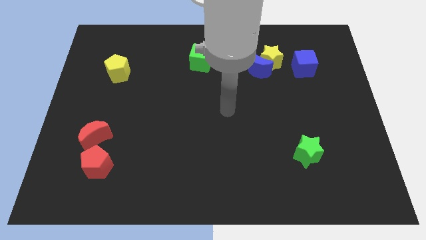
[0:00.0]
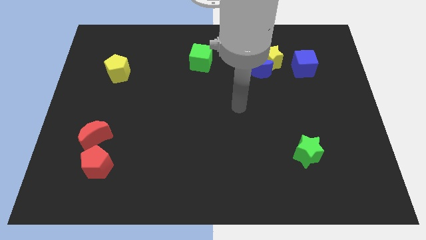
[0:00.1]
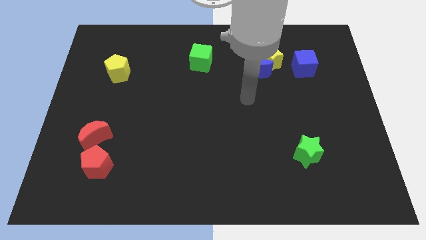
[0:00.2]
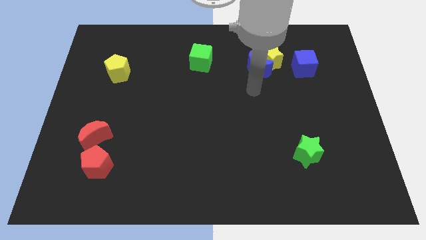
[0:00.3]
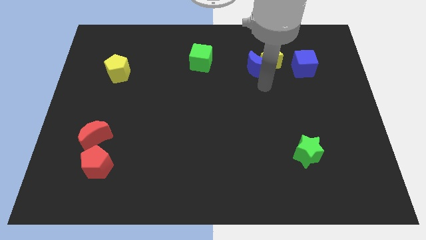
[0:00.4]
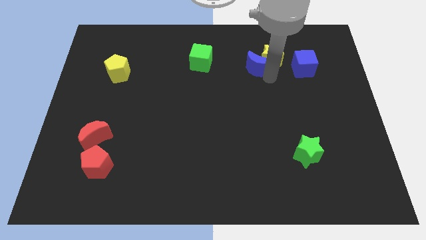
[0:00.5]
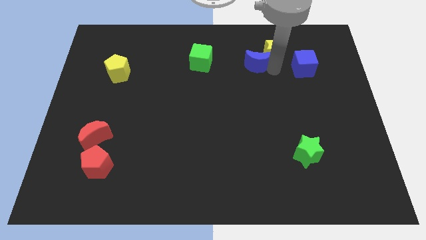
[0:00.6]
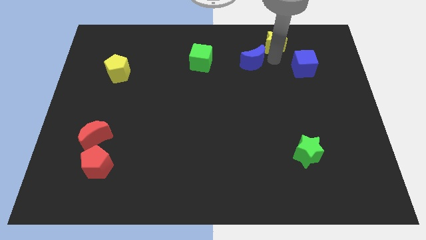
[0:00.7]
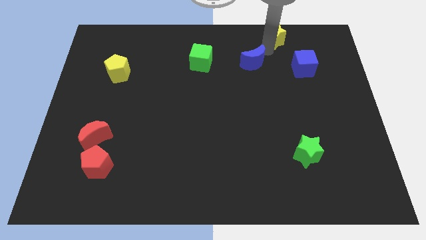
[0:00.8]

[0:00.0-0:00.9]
separate the blue moon from the yellow star

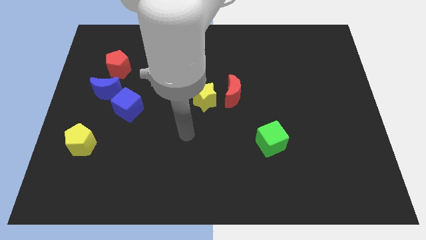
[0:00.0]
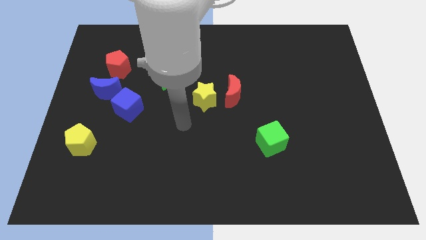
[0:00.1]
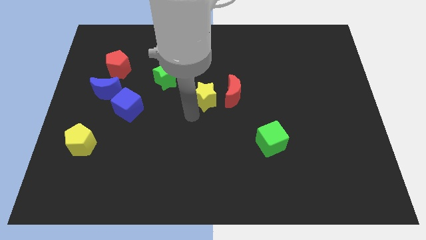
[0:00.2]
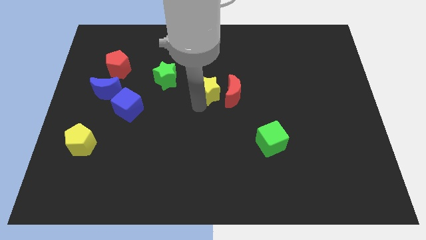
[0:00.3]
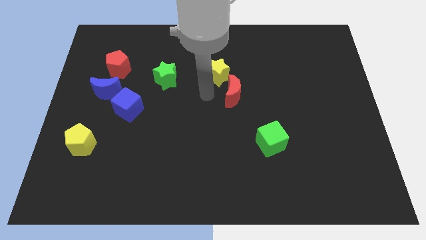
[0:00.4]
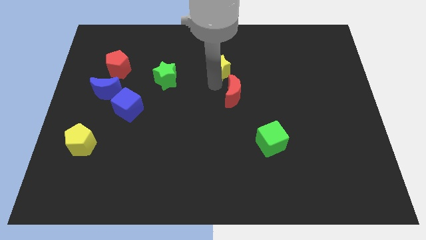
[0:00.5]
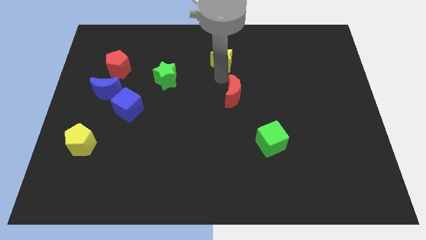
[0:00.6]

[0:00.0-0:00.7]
move the red moon away from the yellow star

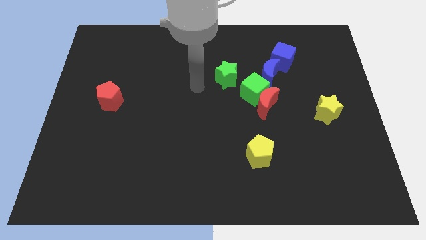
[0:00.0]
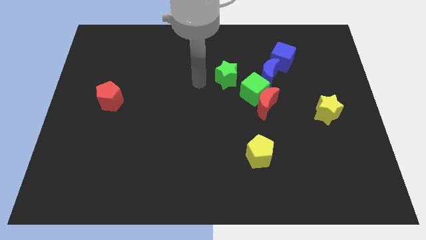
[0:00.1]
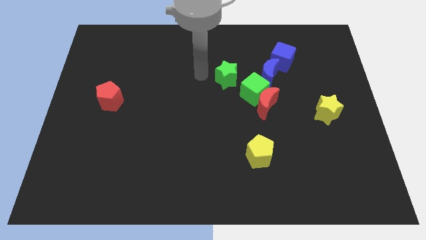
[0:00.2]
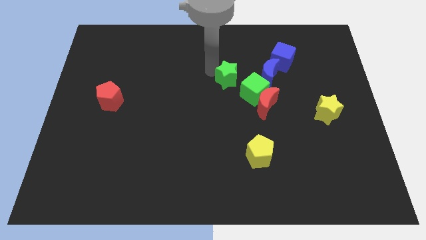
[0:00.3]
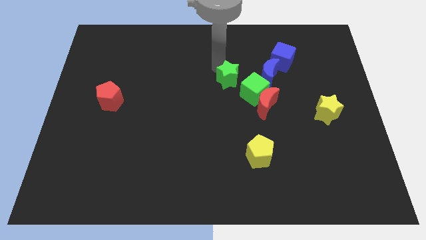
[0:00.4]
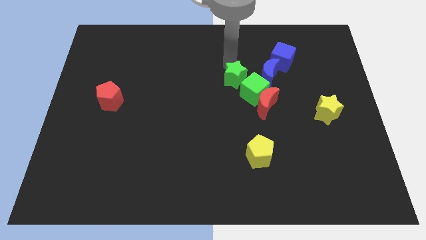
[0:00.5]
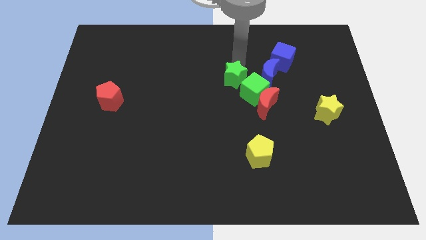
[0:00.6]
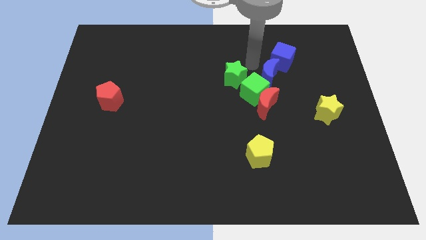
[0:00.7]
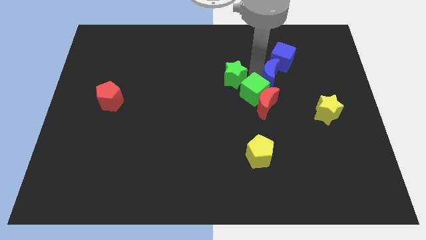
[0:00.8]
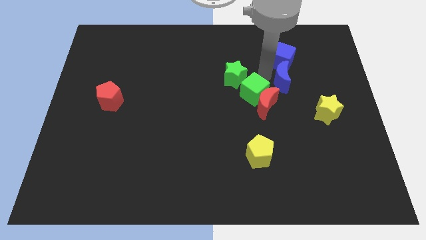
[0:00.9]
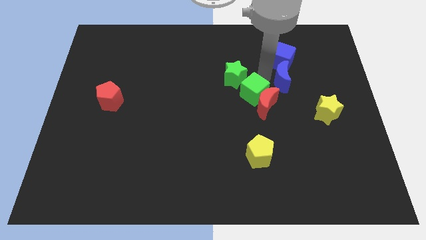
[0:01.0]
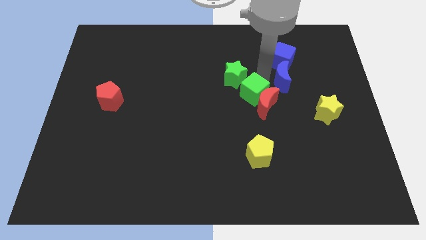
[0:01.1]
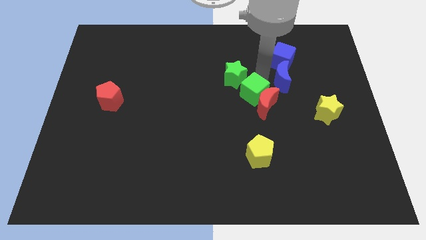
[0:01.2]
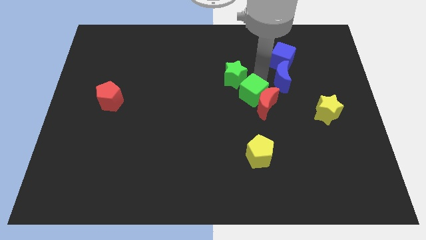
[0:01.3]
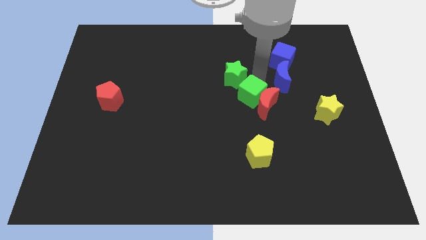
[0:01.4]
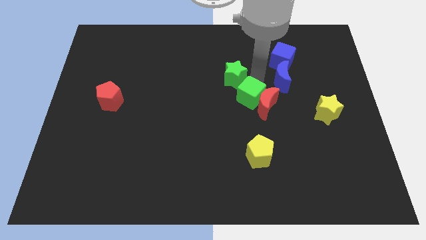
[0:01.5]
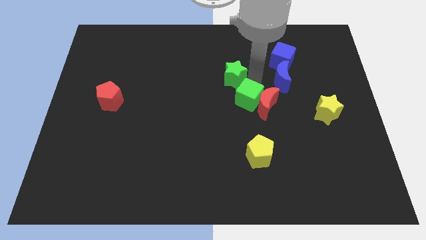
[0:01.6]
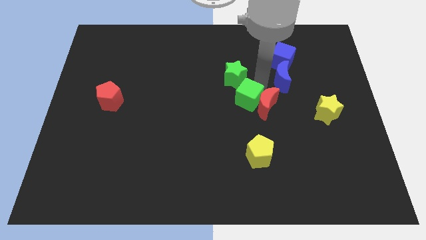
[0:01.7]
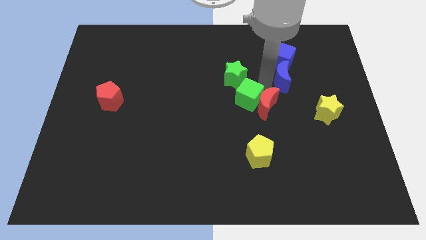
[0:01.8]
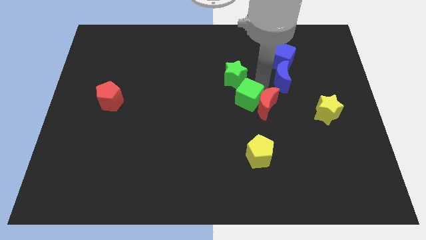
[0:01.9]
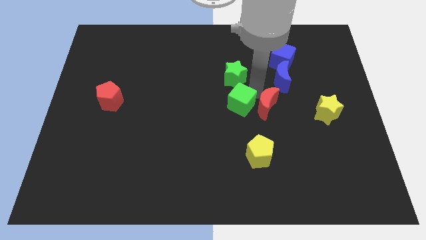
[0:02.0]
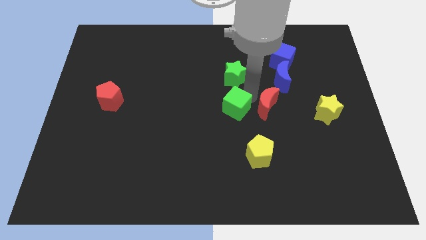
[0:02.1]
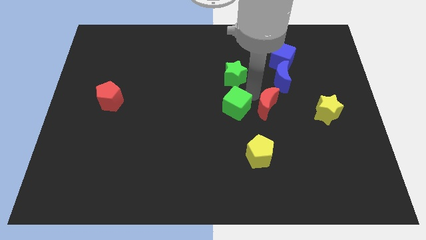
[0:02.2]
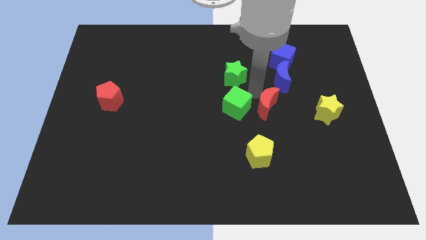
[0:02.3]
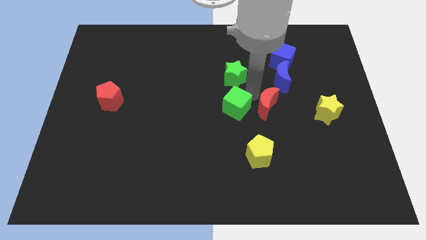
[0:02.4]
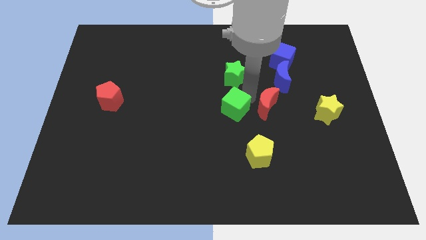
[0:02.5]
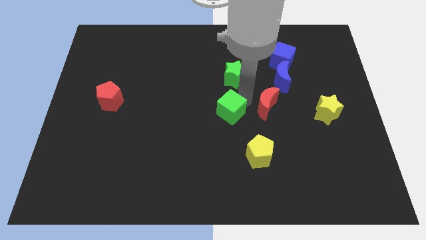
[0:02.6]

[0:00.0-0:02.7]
pull the green cube apart from the red moon, blue moon, and green star

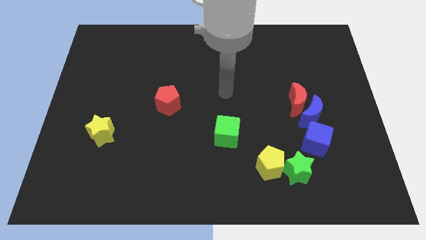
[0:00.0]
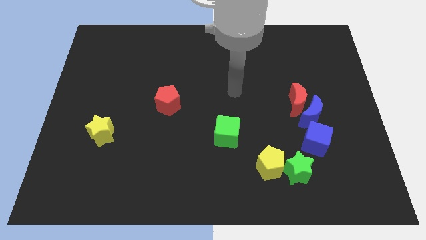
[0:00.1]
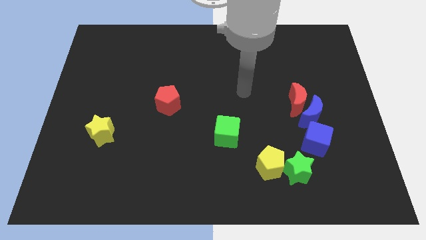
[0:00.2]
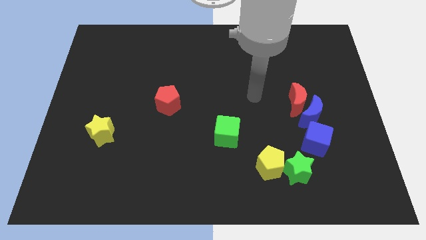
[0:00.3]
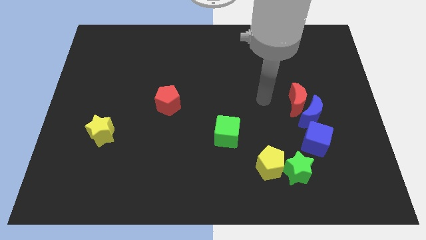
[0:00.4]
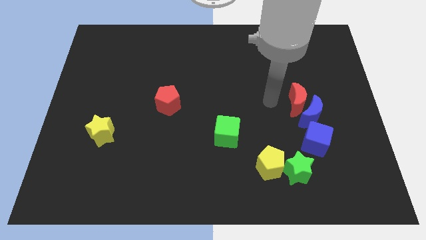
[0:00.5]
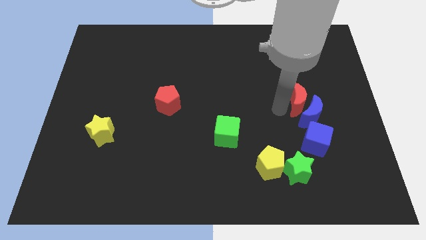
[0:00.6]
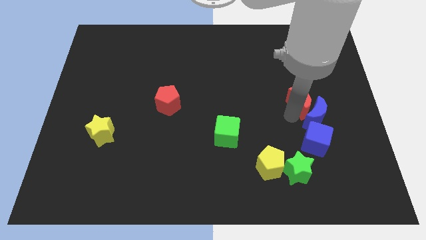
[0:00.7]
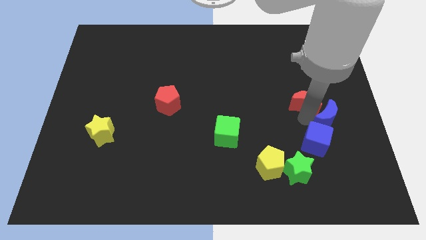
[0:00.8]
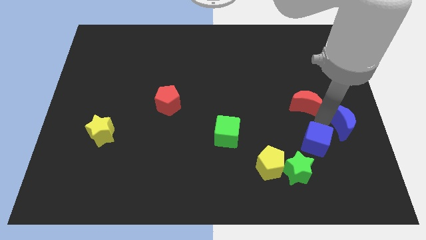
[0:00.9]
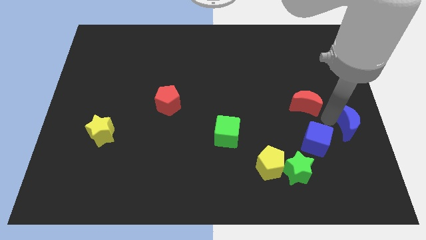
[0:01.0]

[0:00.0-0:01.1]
separate the red moon from the blue moon

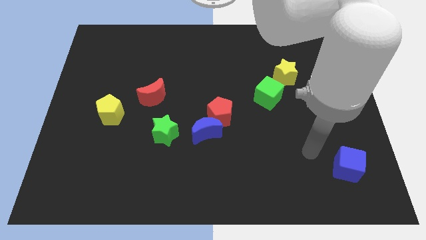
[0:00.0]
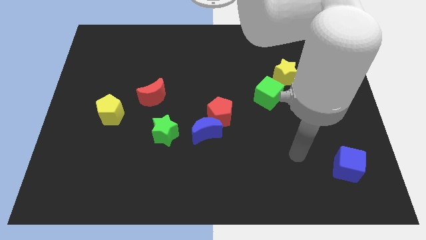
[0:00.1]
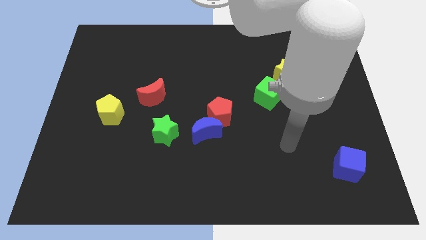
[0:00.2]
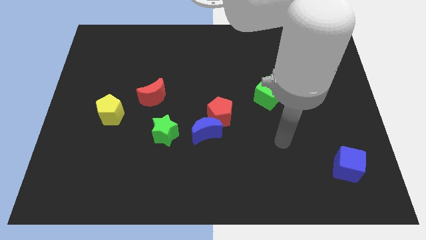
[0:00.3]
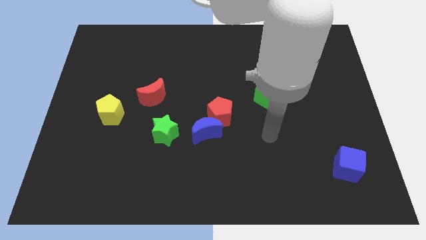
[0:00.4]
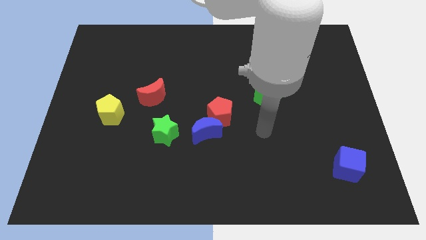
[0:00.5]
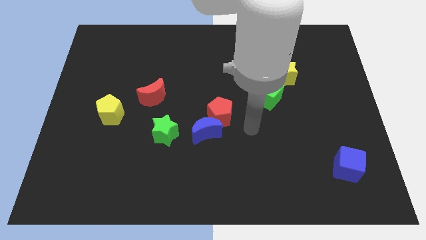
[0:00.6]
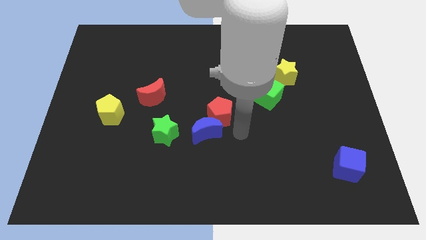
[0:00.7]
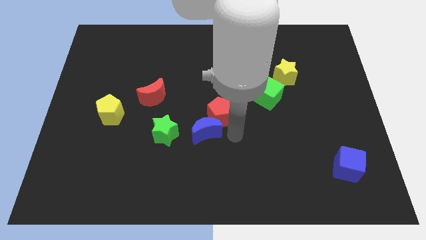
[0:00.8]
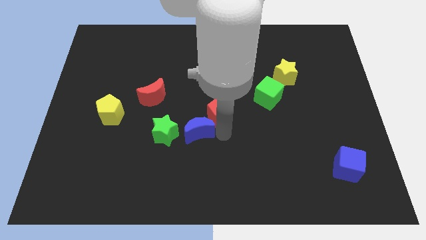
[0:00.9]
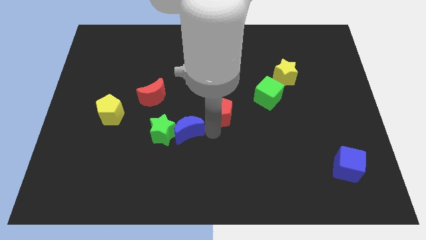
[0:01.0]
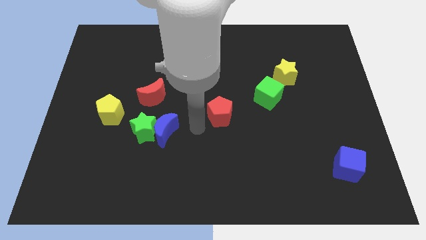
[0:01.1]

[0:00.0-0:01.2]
separate the red pentagon from the blue moon

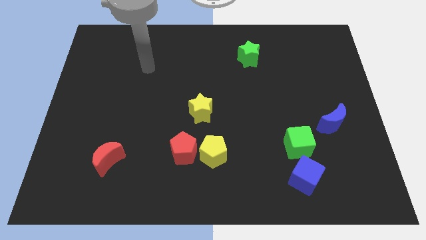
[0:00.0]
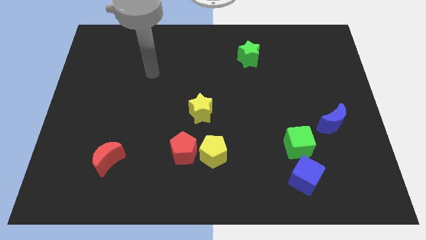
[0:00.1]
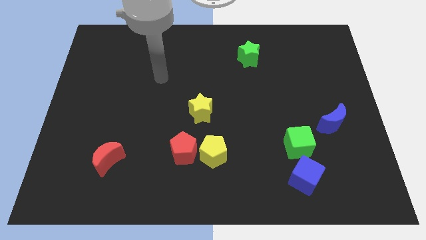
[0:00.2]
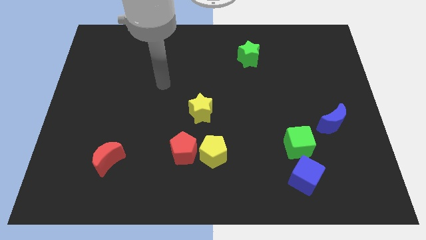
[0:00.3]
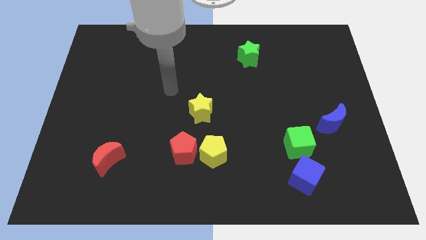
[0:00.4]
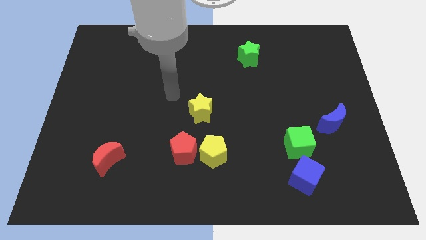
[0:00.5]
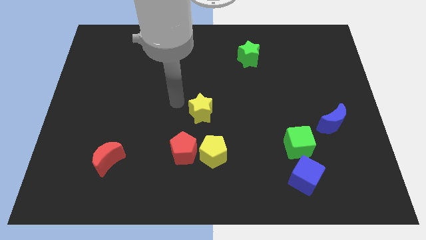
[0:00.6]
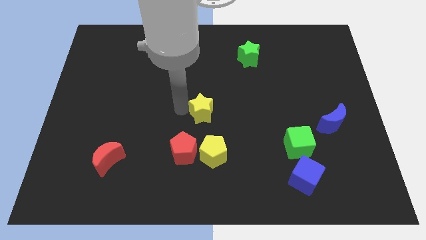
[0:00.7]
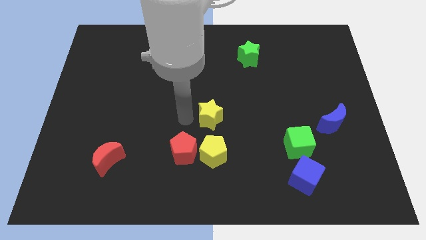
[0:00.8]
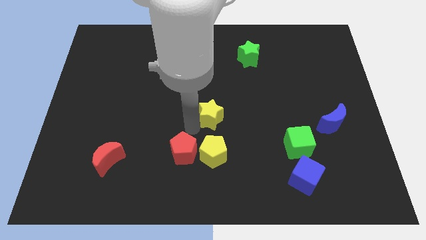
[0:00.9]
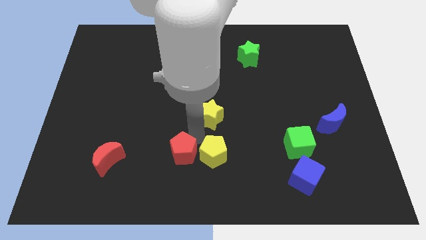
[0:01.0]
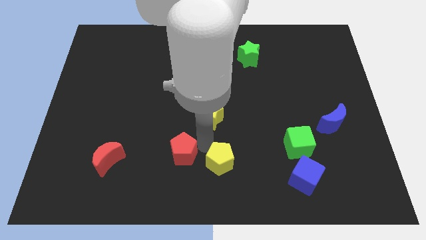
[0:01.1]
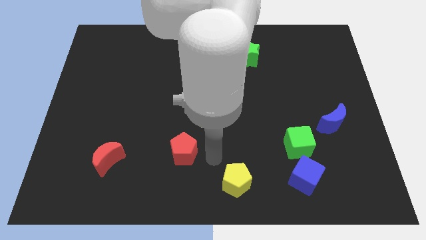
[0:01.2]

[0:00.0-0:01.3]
pull the red pentagon apart from the yellow pentagon

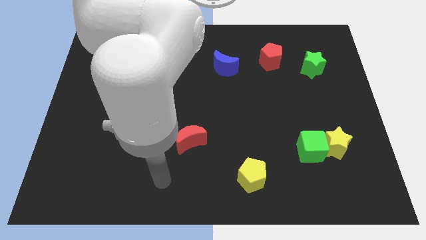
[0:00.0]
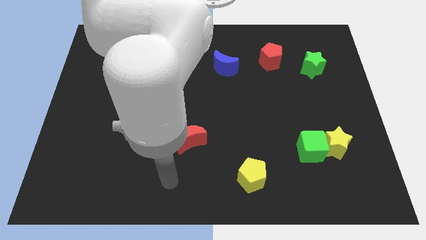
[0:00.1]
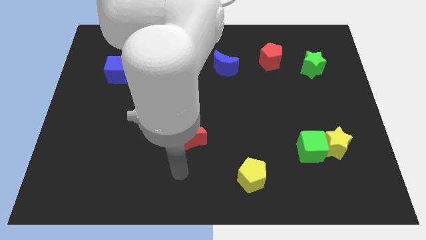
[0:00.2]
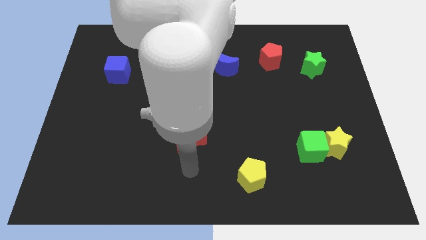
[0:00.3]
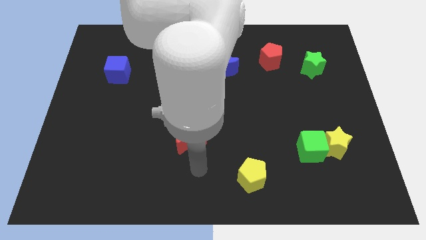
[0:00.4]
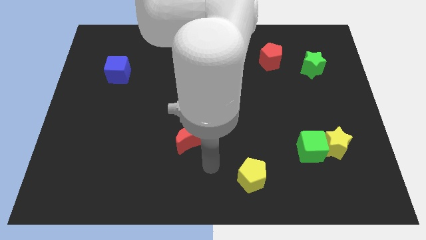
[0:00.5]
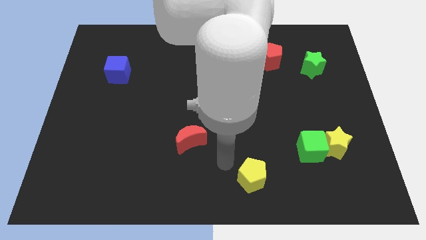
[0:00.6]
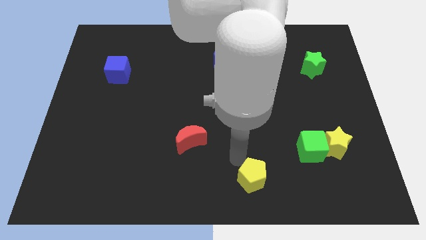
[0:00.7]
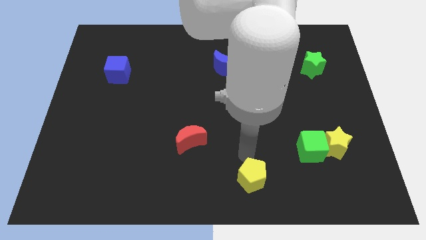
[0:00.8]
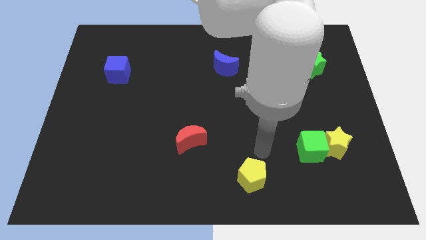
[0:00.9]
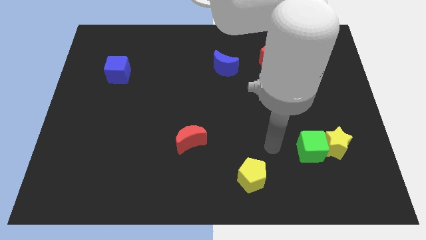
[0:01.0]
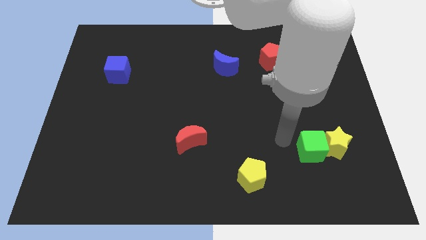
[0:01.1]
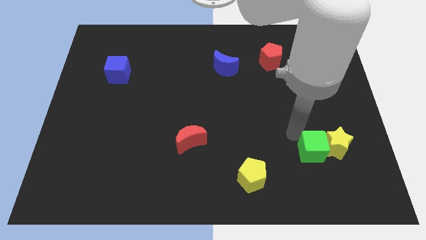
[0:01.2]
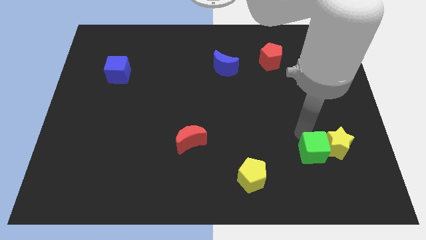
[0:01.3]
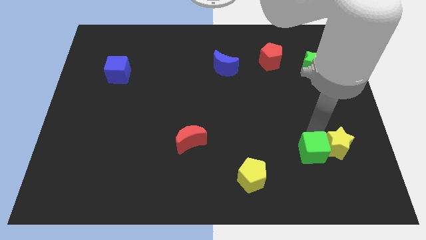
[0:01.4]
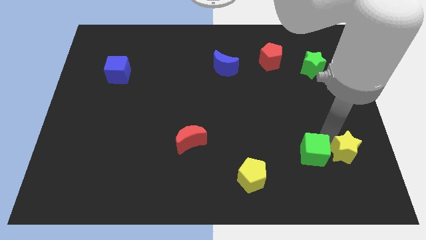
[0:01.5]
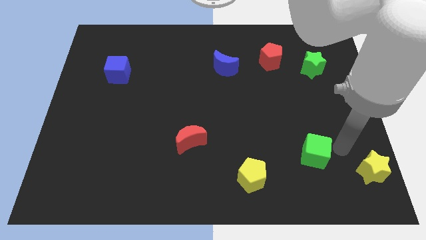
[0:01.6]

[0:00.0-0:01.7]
pull the green cube apart from the yellow star
